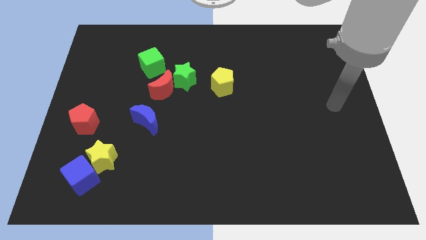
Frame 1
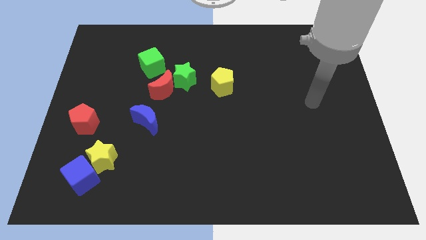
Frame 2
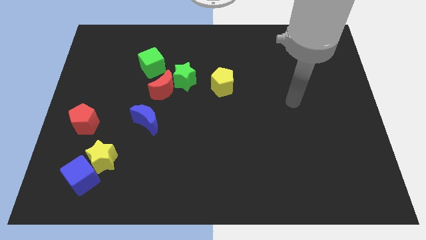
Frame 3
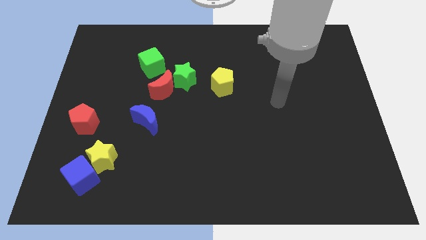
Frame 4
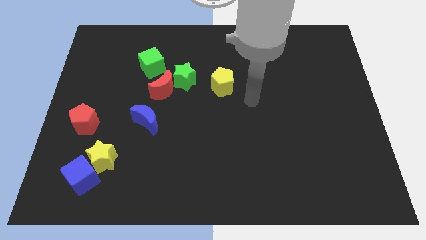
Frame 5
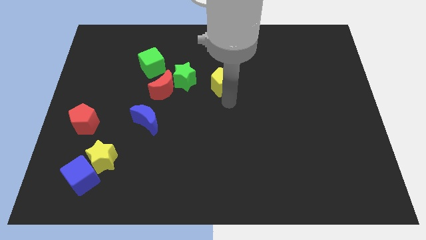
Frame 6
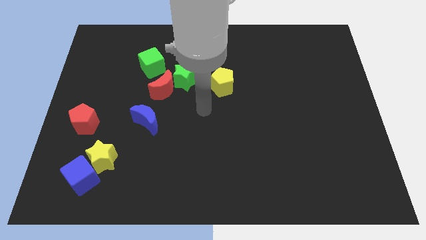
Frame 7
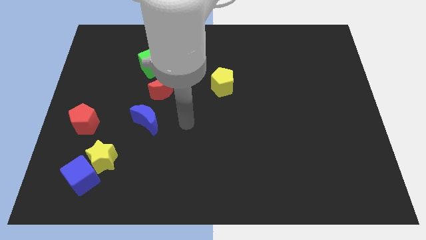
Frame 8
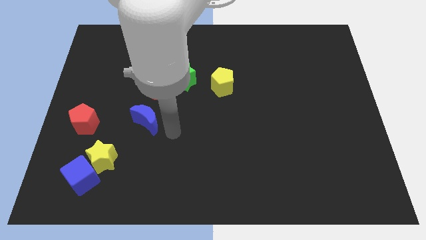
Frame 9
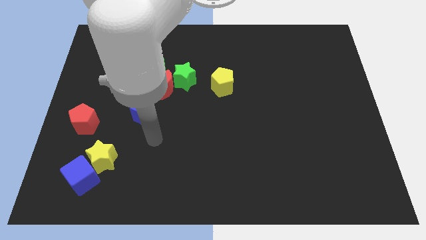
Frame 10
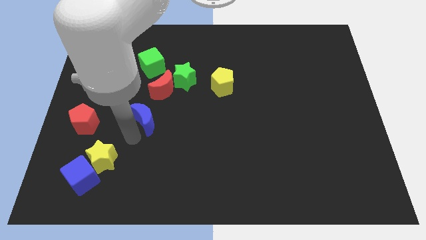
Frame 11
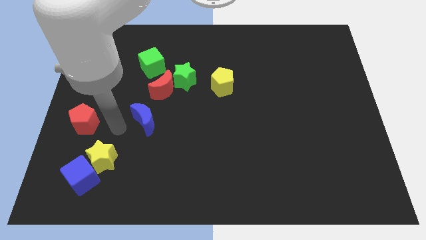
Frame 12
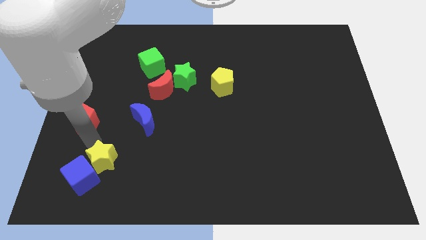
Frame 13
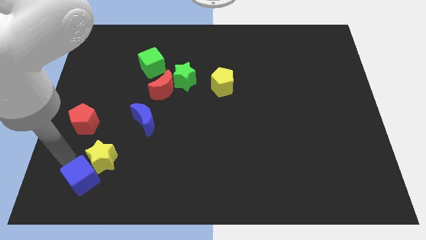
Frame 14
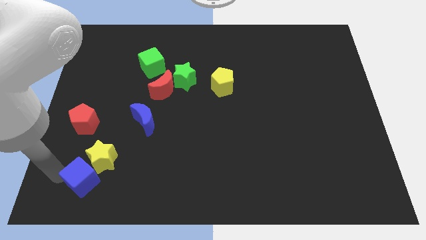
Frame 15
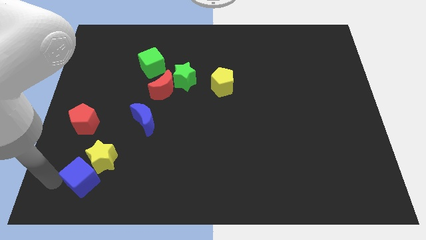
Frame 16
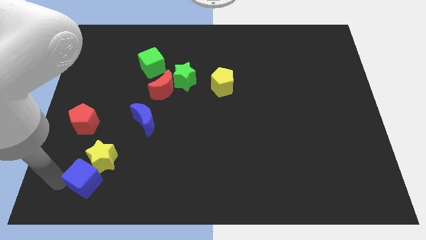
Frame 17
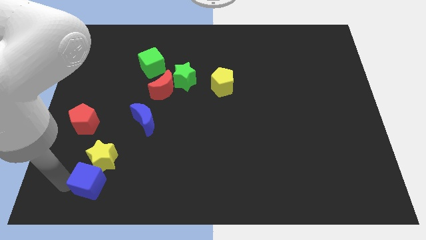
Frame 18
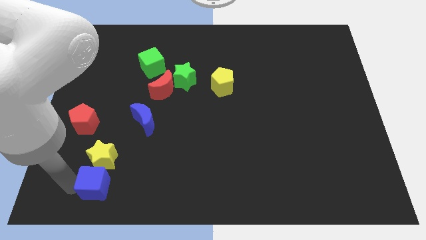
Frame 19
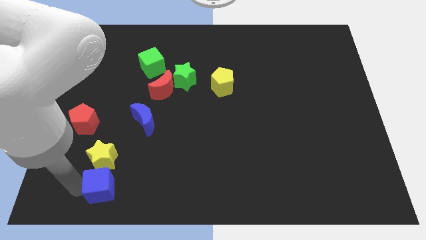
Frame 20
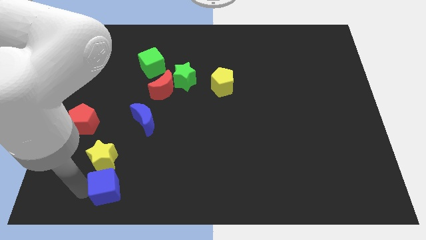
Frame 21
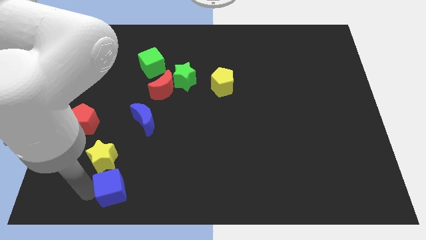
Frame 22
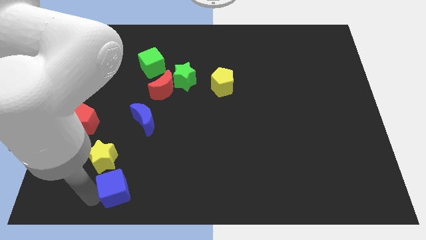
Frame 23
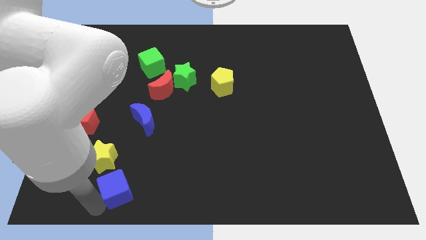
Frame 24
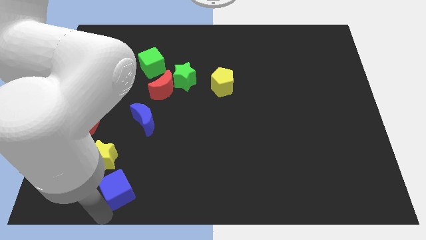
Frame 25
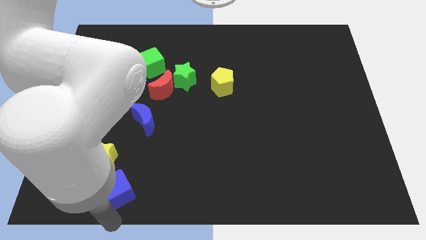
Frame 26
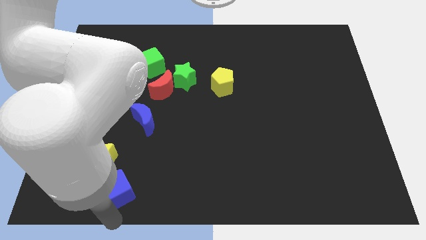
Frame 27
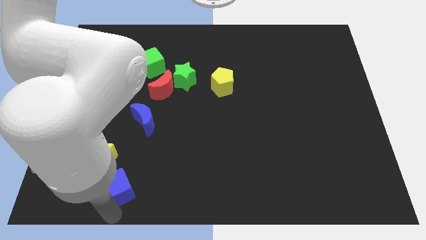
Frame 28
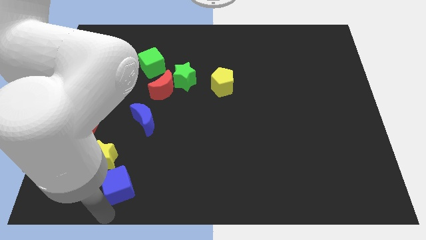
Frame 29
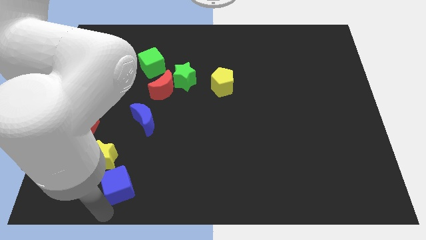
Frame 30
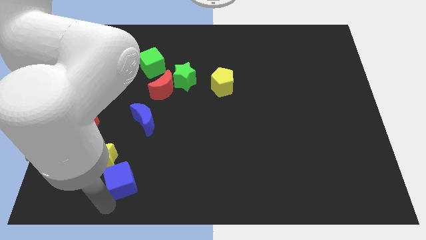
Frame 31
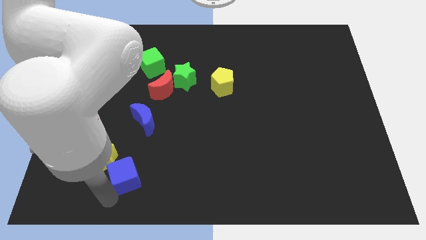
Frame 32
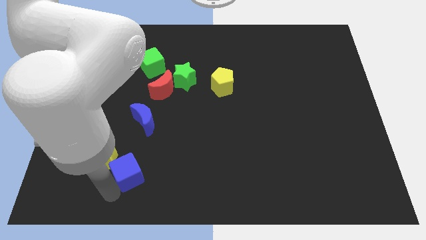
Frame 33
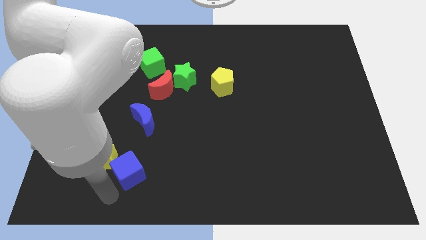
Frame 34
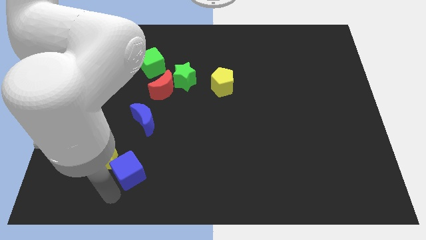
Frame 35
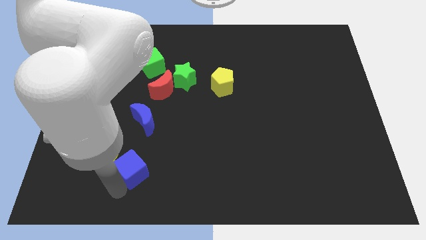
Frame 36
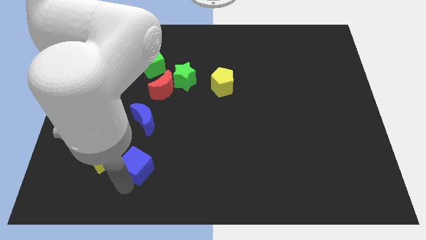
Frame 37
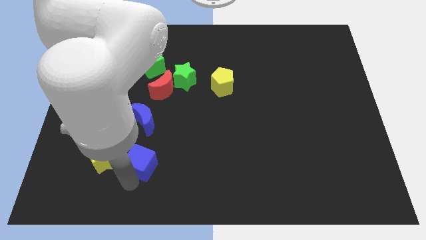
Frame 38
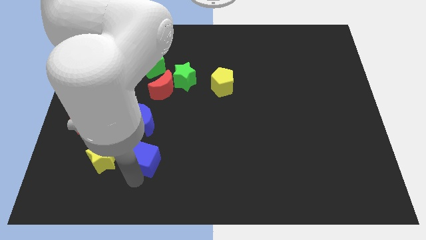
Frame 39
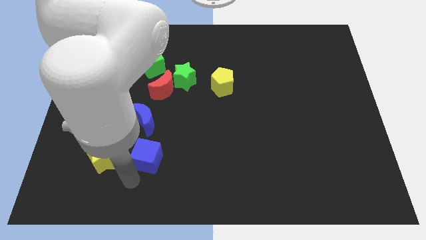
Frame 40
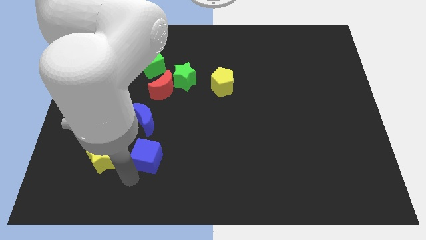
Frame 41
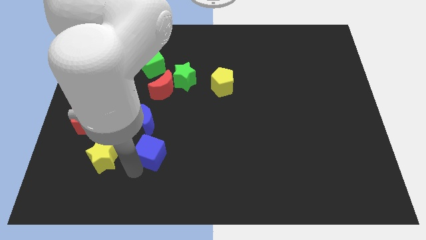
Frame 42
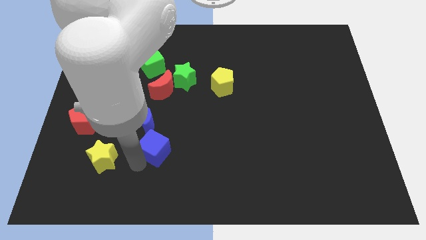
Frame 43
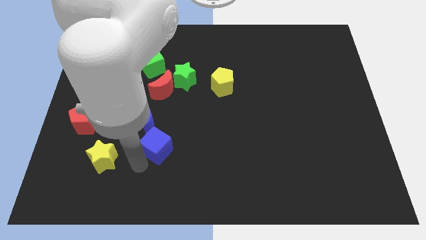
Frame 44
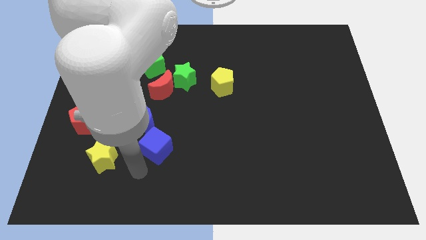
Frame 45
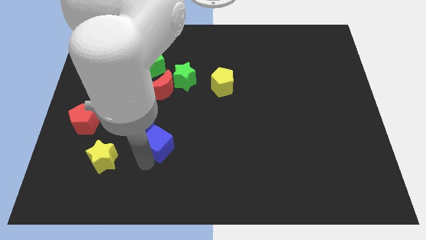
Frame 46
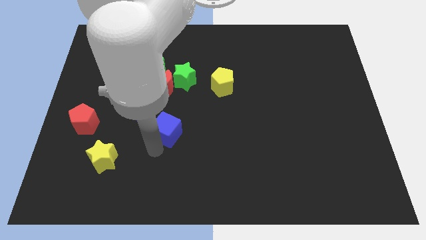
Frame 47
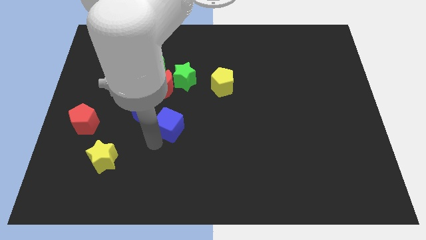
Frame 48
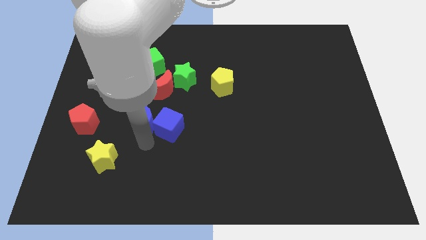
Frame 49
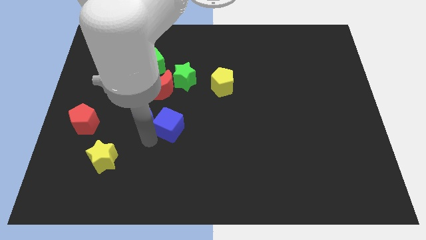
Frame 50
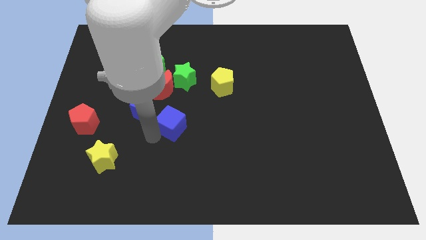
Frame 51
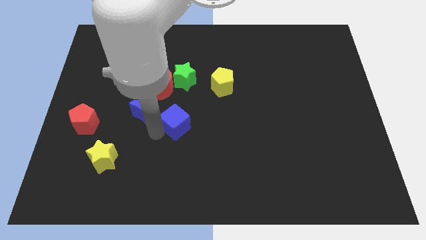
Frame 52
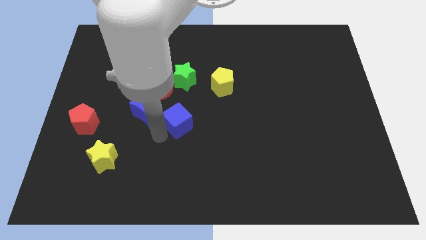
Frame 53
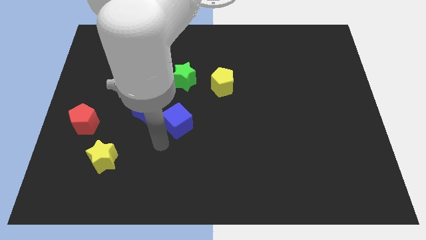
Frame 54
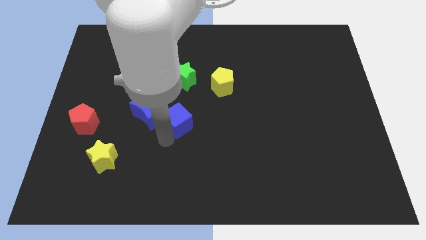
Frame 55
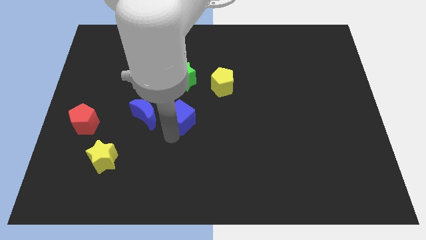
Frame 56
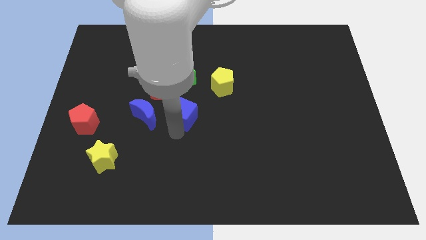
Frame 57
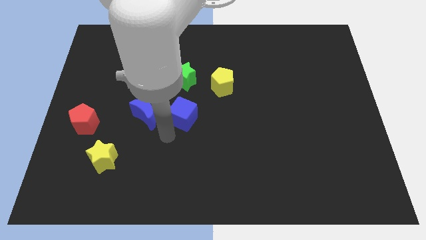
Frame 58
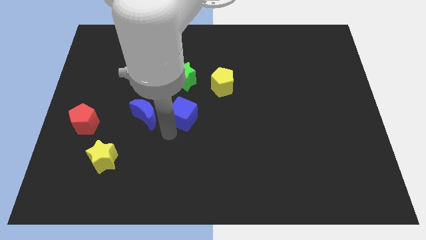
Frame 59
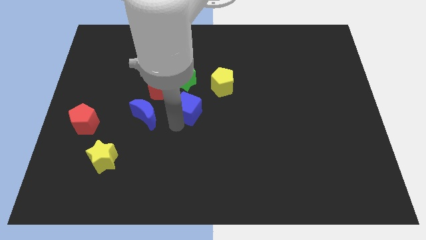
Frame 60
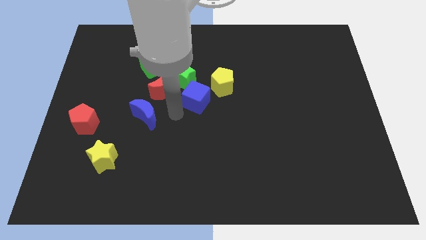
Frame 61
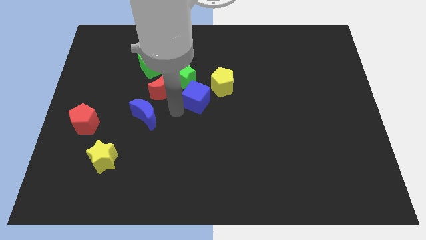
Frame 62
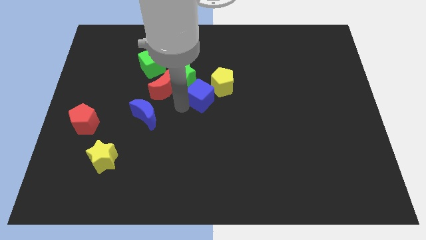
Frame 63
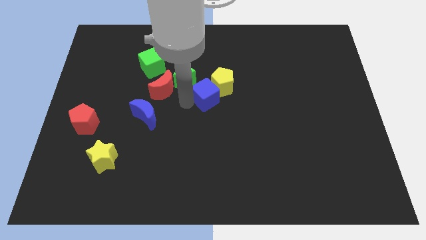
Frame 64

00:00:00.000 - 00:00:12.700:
move the blue cube to the yellow pentagon
